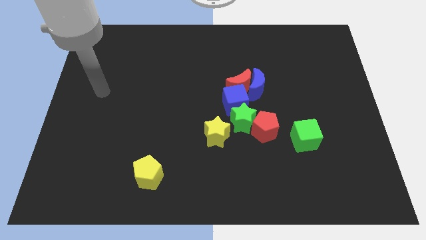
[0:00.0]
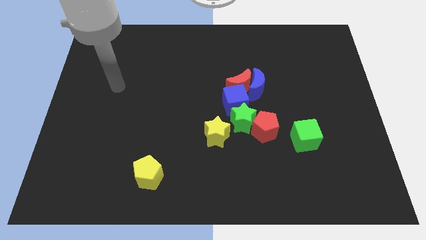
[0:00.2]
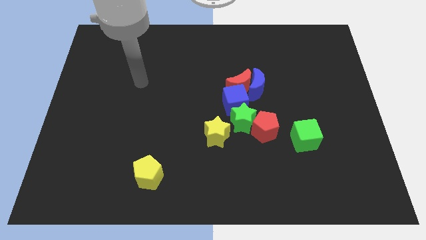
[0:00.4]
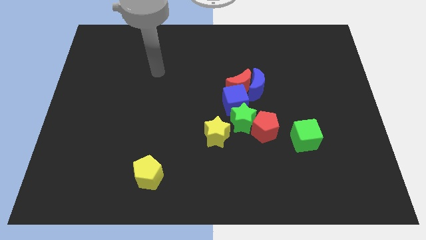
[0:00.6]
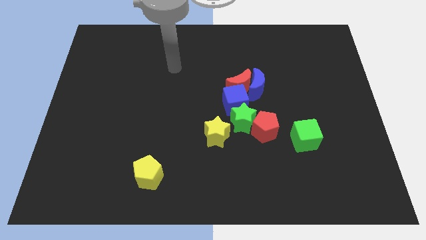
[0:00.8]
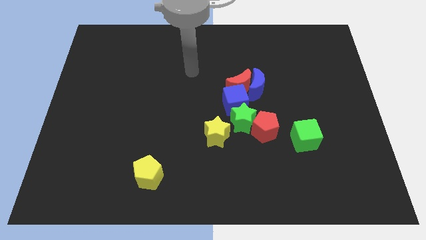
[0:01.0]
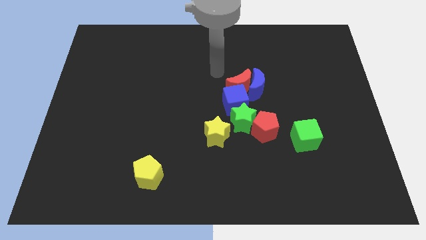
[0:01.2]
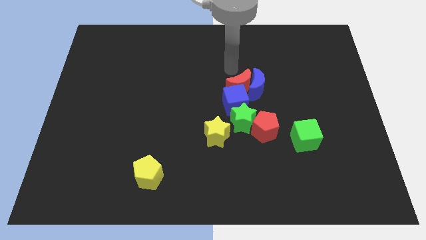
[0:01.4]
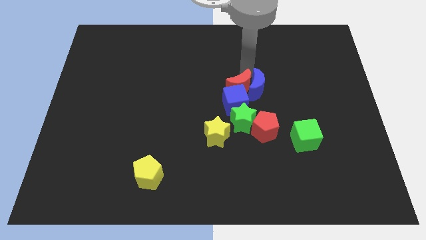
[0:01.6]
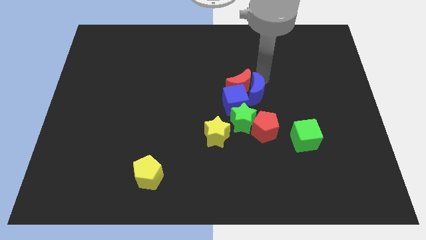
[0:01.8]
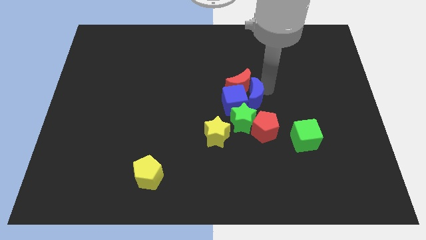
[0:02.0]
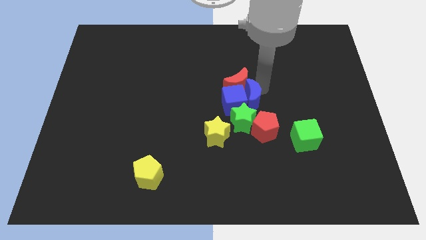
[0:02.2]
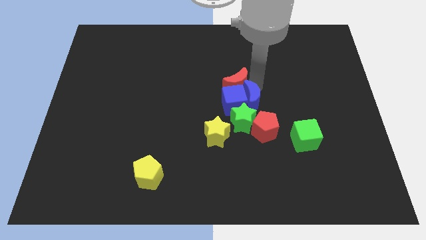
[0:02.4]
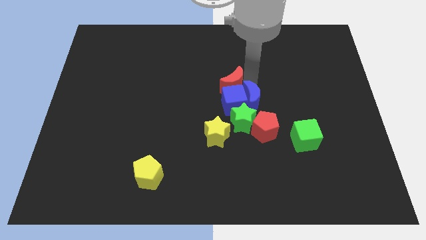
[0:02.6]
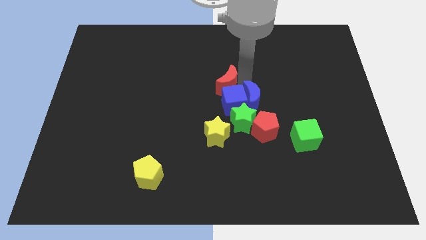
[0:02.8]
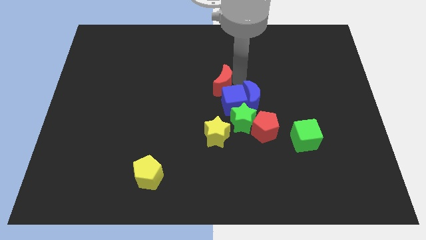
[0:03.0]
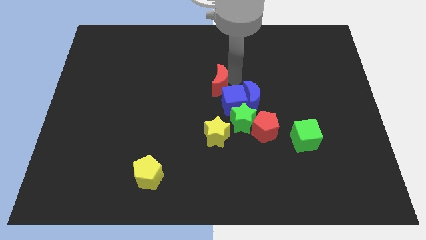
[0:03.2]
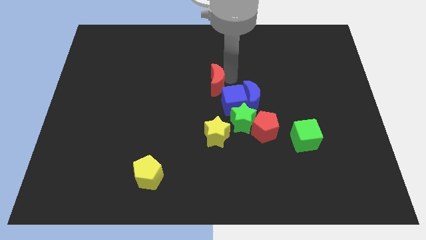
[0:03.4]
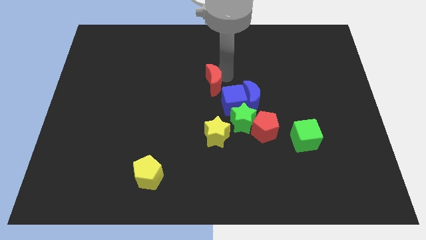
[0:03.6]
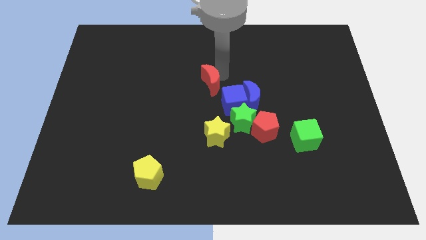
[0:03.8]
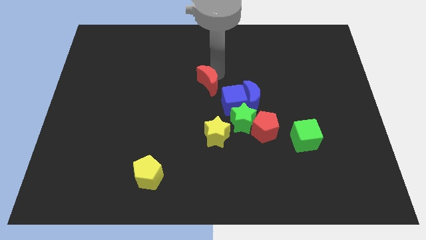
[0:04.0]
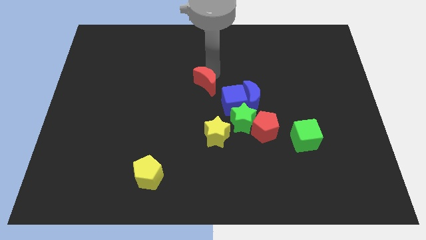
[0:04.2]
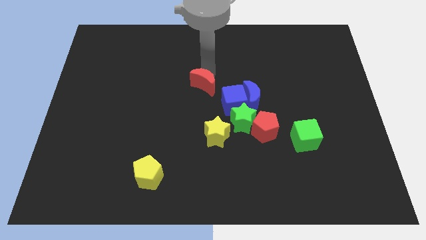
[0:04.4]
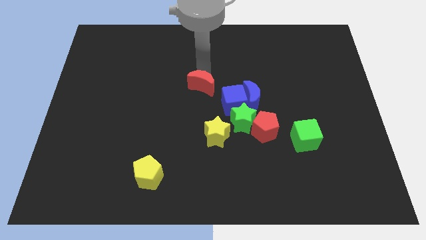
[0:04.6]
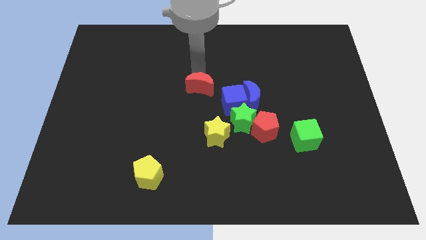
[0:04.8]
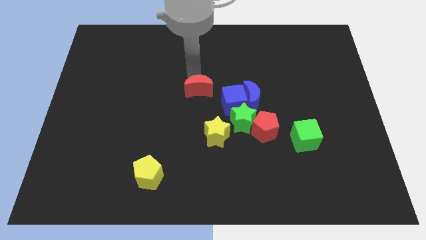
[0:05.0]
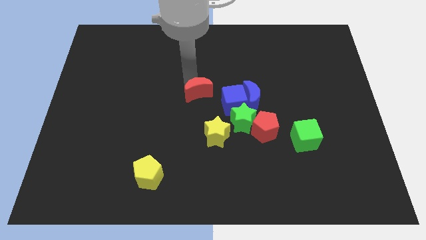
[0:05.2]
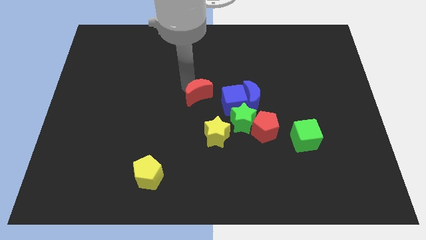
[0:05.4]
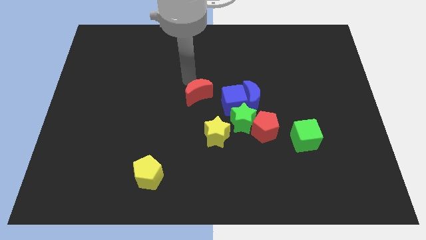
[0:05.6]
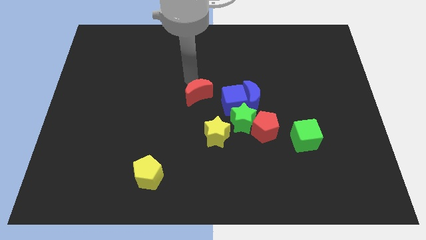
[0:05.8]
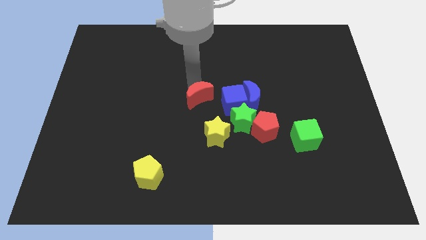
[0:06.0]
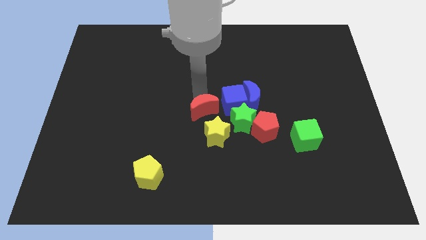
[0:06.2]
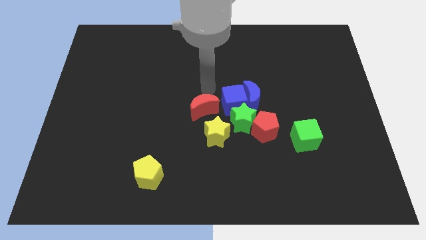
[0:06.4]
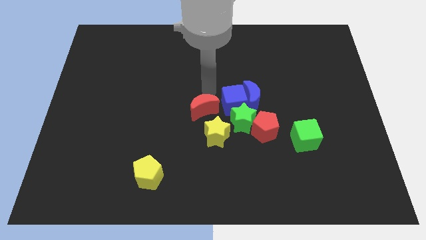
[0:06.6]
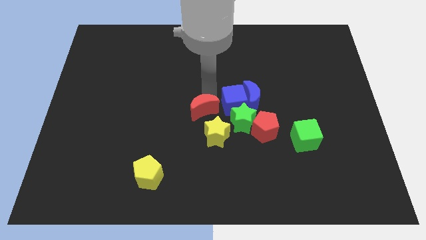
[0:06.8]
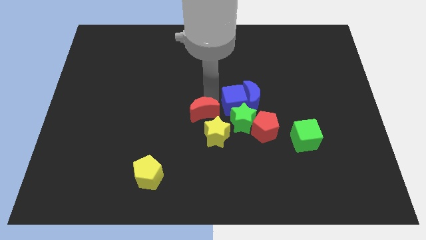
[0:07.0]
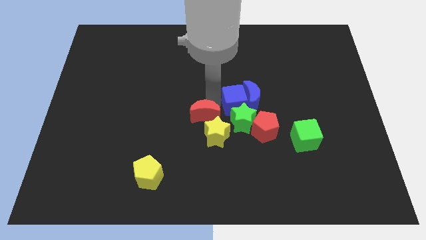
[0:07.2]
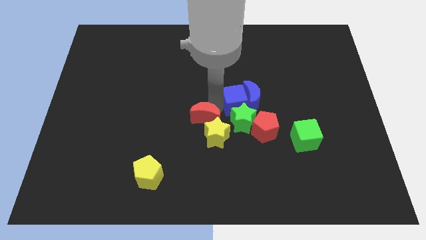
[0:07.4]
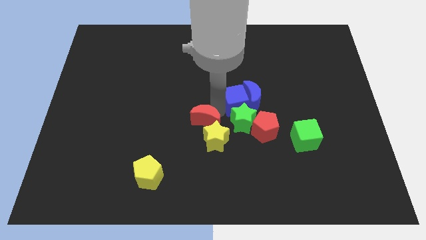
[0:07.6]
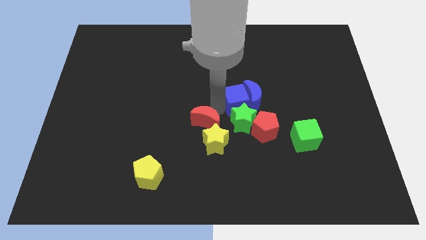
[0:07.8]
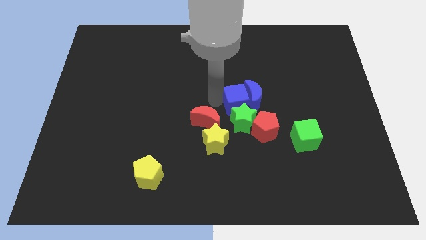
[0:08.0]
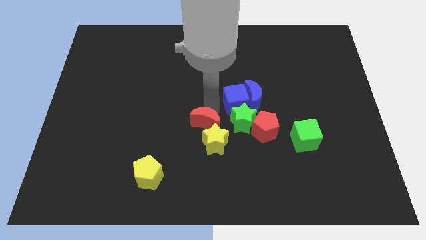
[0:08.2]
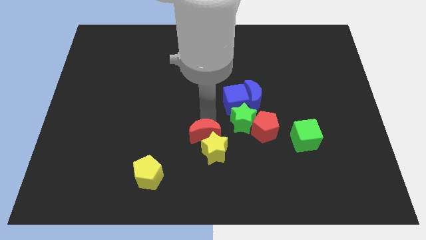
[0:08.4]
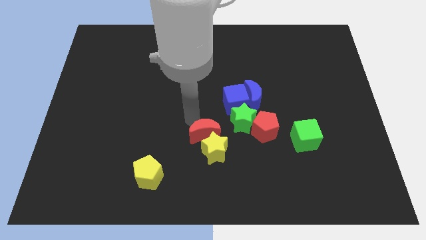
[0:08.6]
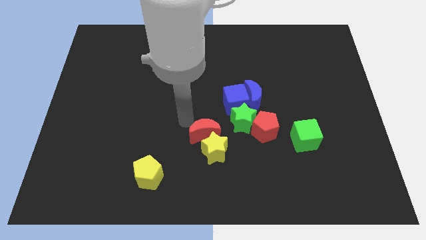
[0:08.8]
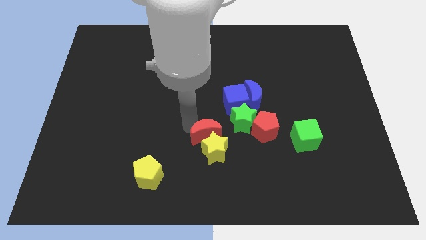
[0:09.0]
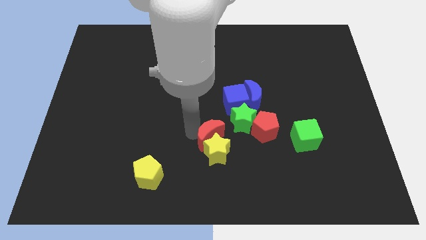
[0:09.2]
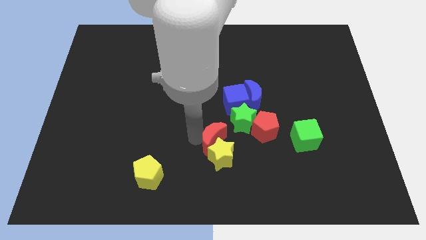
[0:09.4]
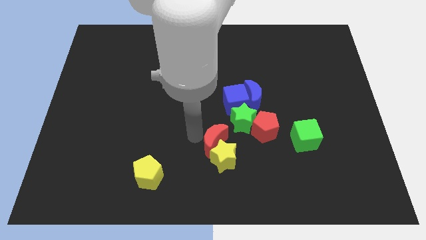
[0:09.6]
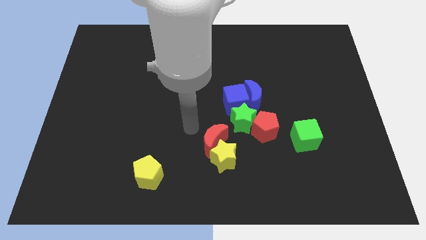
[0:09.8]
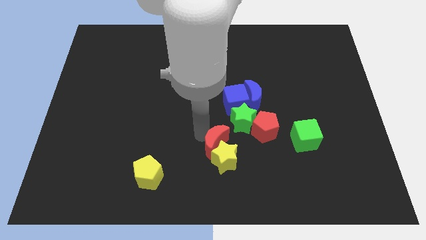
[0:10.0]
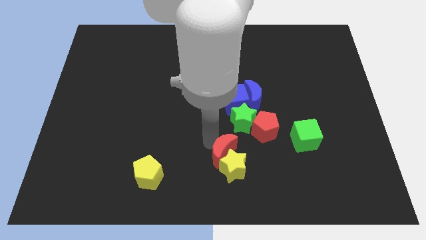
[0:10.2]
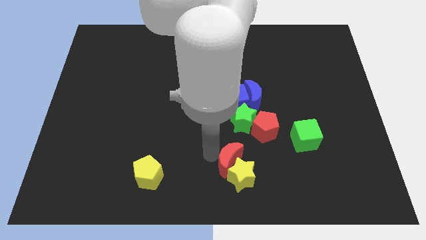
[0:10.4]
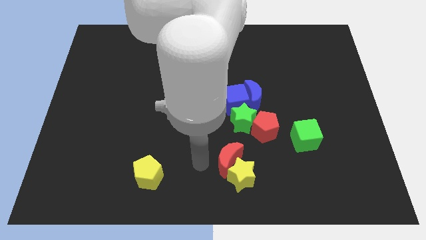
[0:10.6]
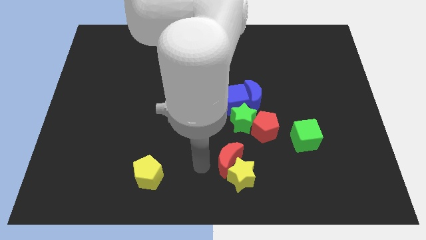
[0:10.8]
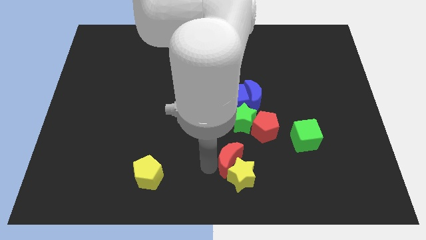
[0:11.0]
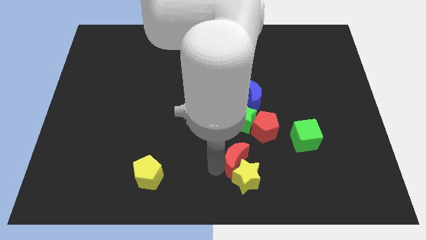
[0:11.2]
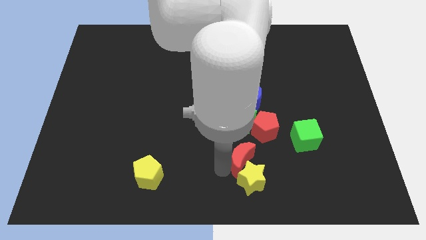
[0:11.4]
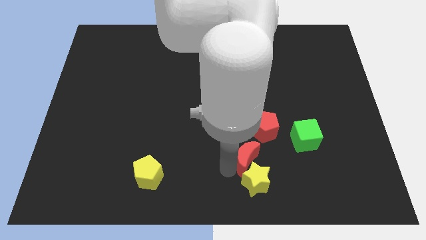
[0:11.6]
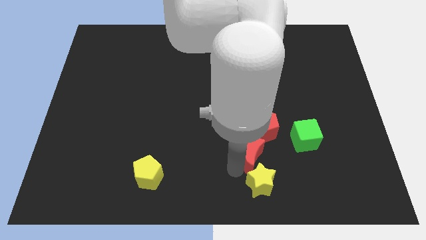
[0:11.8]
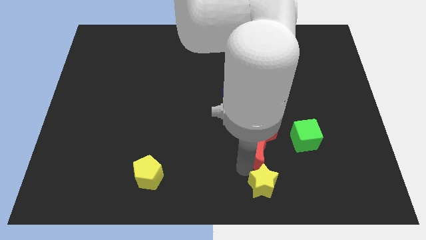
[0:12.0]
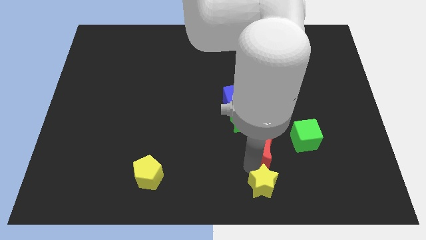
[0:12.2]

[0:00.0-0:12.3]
move the red moon diagonally down and to the right of the red pentagon

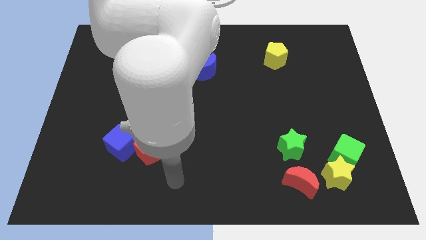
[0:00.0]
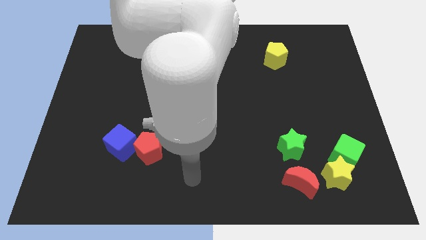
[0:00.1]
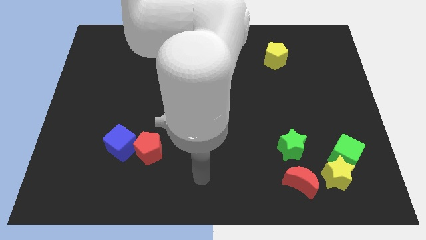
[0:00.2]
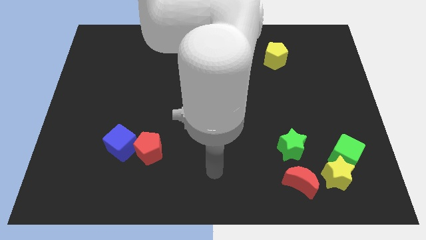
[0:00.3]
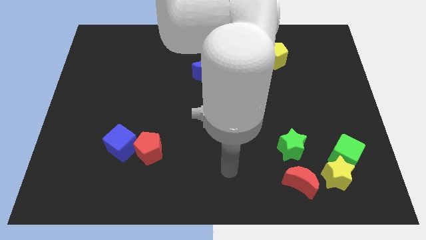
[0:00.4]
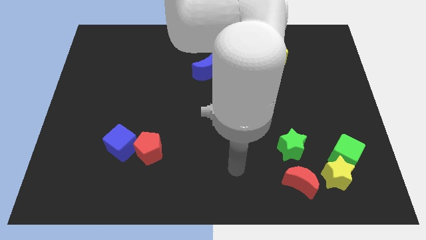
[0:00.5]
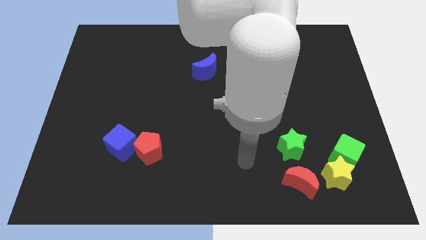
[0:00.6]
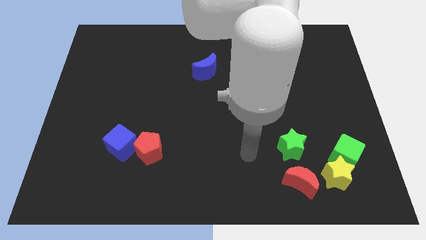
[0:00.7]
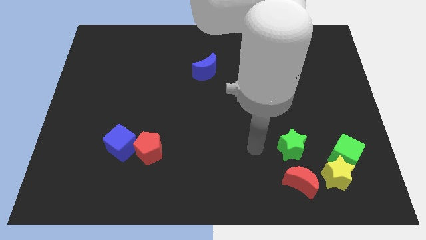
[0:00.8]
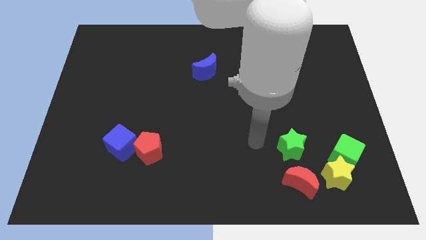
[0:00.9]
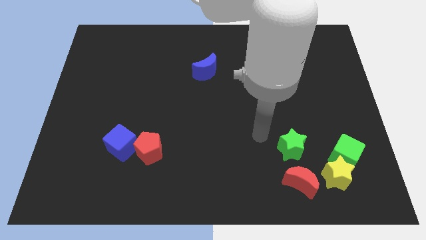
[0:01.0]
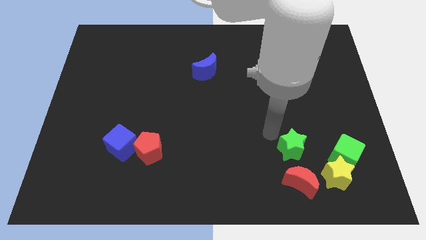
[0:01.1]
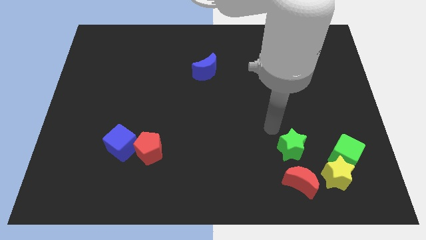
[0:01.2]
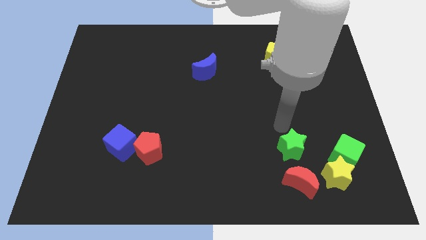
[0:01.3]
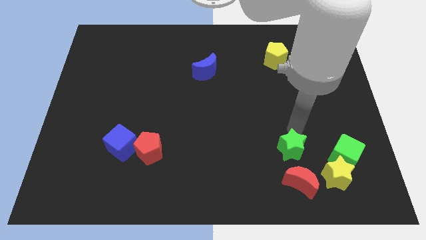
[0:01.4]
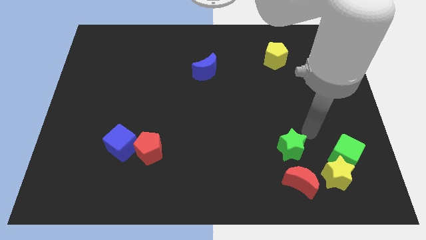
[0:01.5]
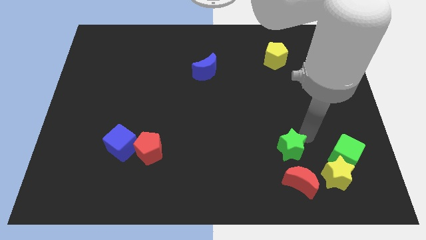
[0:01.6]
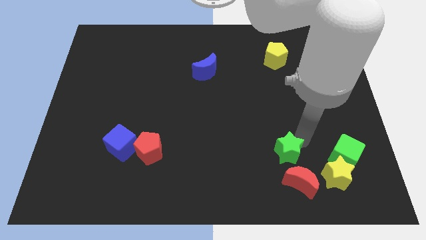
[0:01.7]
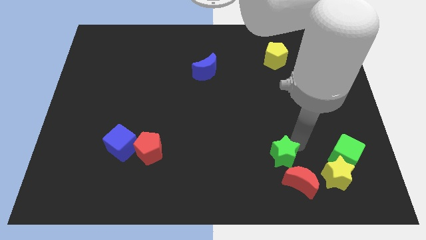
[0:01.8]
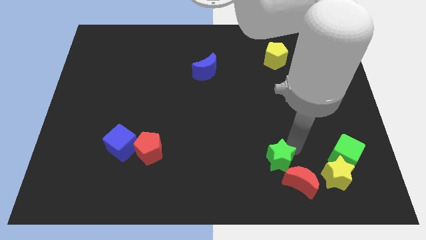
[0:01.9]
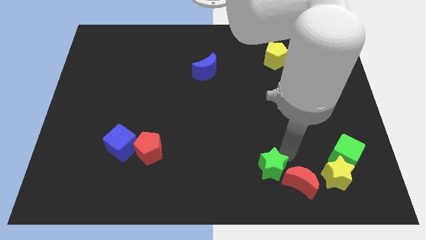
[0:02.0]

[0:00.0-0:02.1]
move the green star to the left side of the red moon
